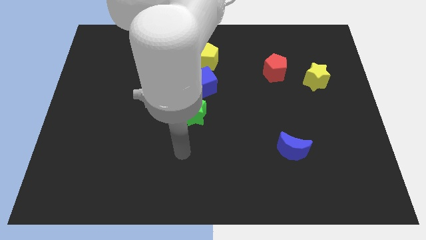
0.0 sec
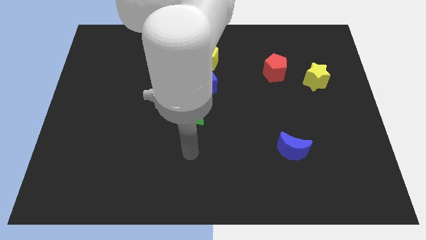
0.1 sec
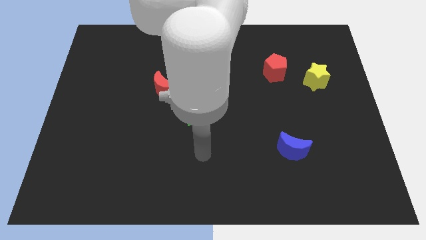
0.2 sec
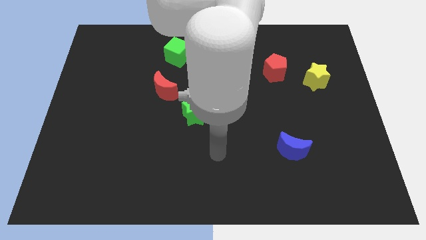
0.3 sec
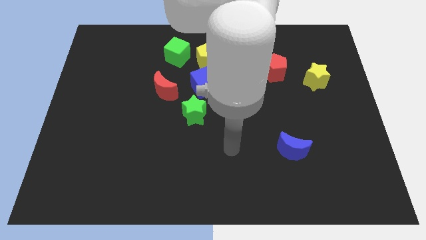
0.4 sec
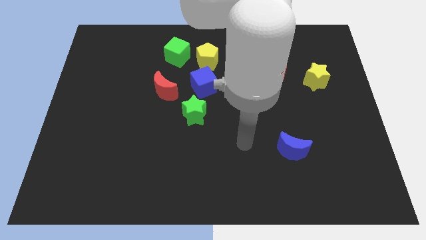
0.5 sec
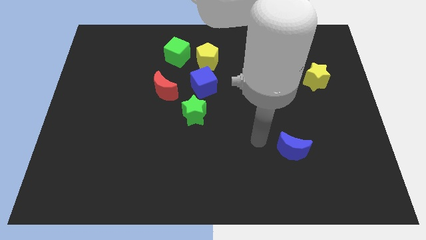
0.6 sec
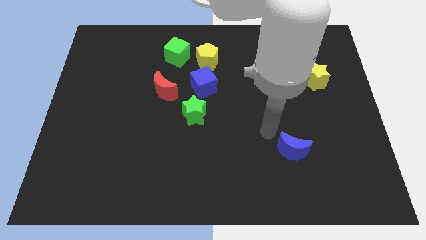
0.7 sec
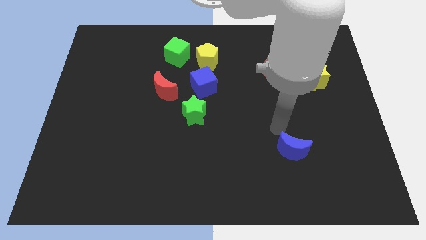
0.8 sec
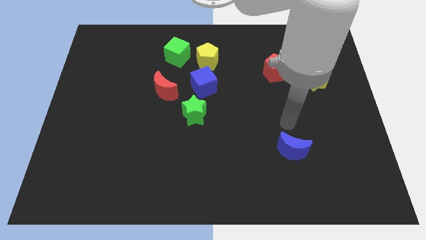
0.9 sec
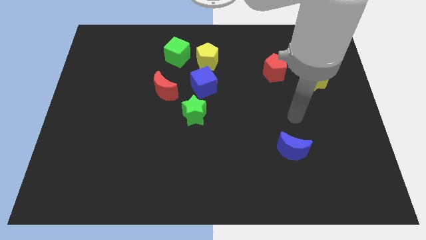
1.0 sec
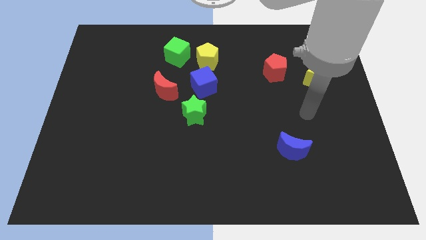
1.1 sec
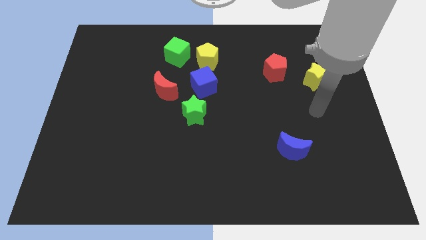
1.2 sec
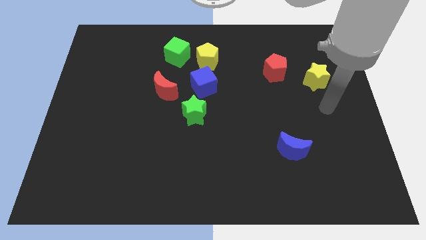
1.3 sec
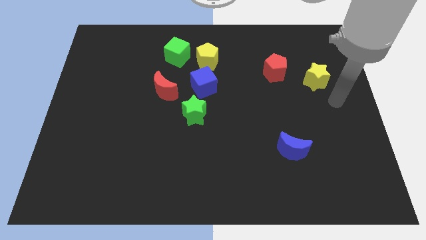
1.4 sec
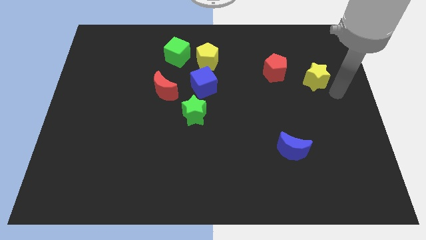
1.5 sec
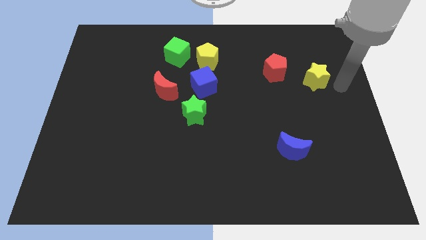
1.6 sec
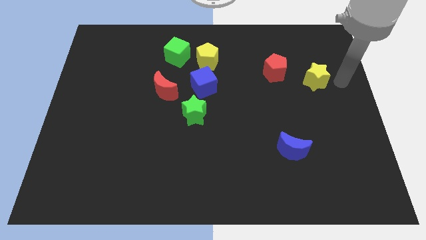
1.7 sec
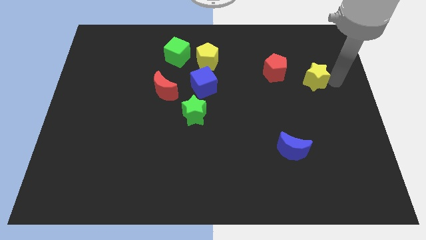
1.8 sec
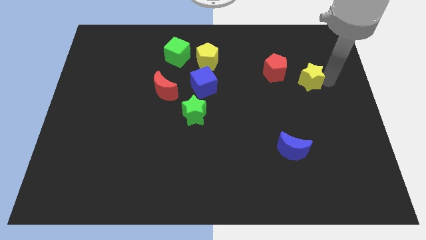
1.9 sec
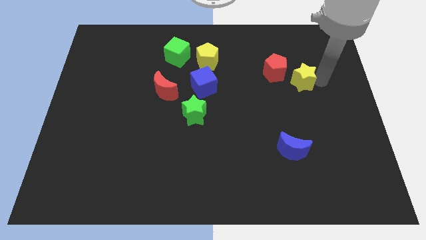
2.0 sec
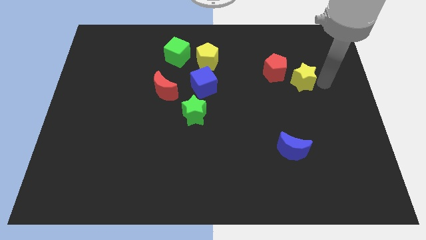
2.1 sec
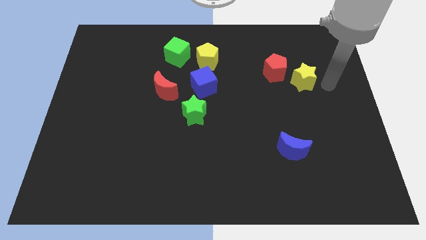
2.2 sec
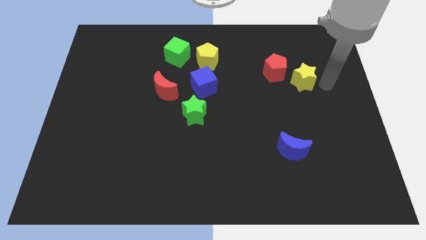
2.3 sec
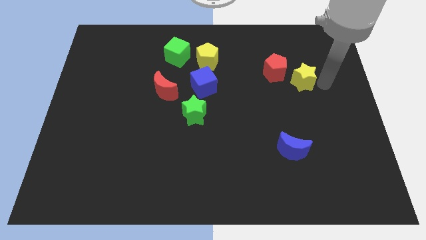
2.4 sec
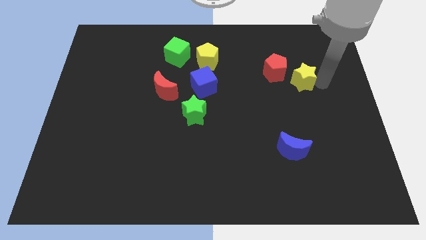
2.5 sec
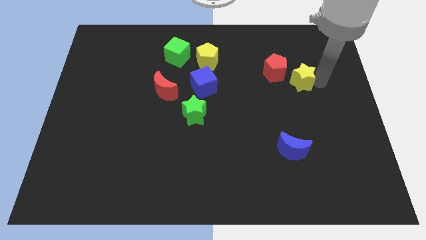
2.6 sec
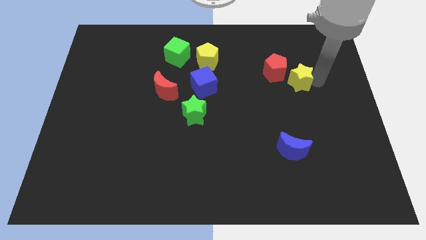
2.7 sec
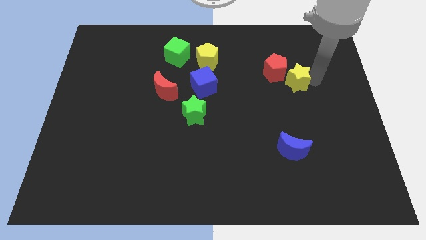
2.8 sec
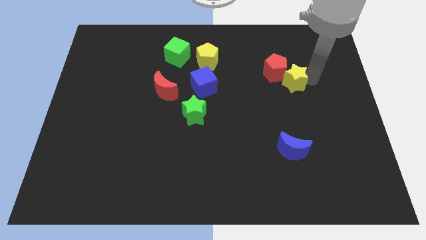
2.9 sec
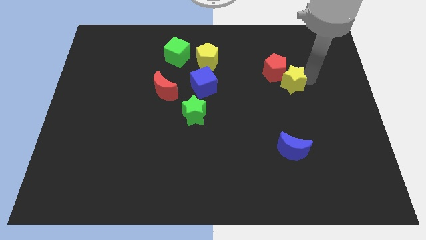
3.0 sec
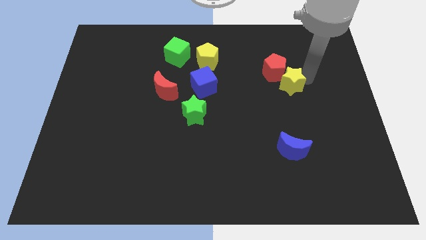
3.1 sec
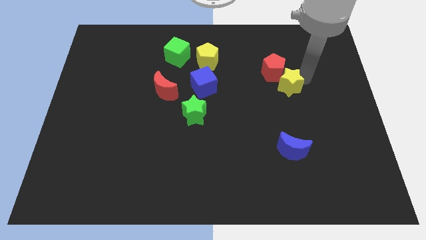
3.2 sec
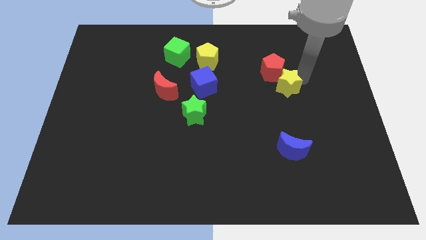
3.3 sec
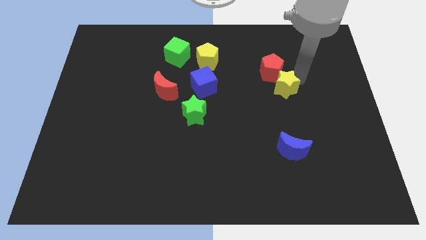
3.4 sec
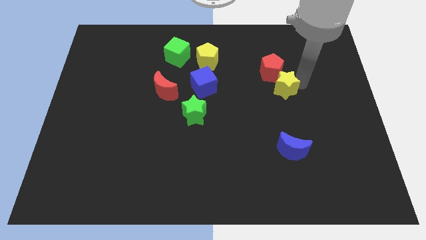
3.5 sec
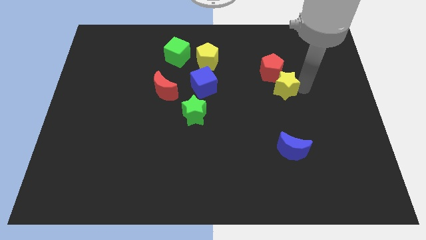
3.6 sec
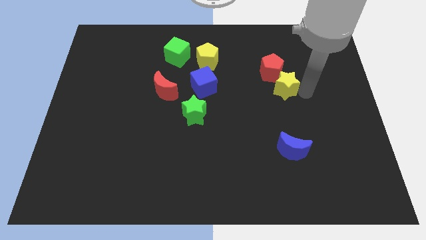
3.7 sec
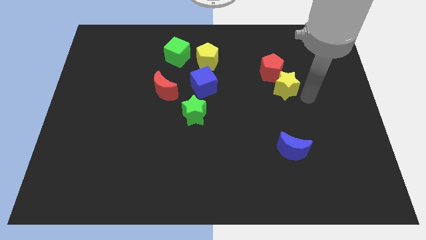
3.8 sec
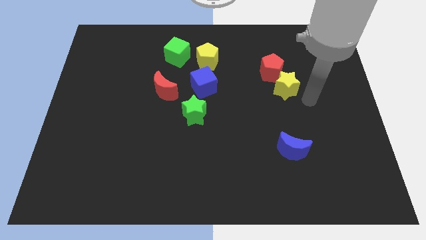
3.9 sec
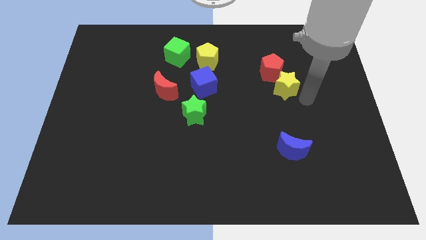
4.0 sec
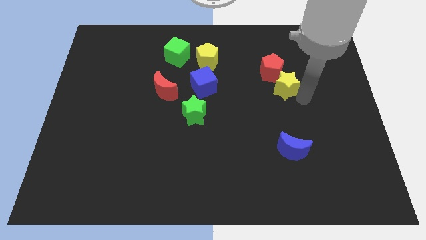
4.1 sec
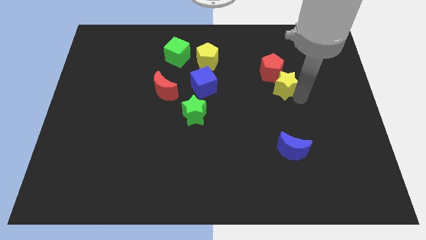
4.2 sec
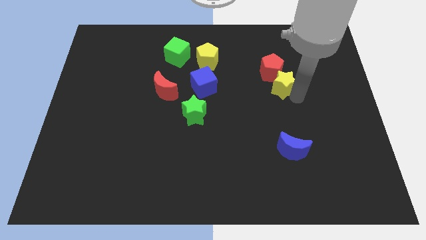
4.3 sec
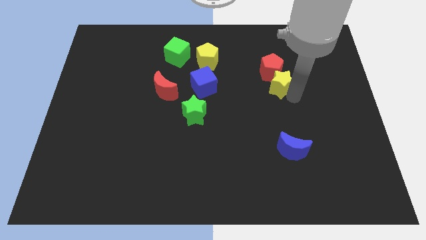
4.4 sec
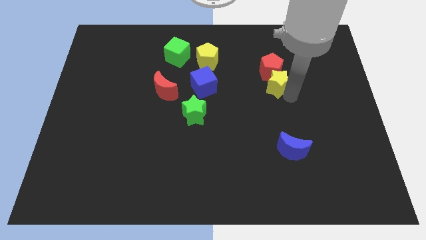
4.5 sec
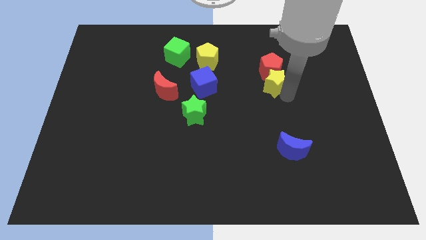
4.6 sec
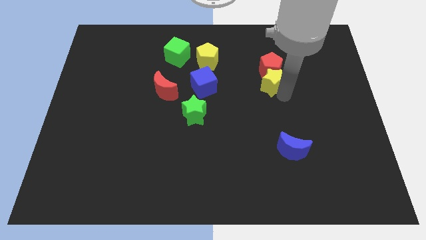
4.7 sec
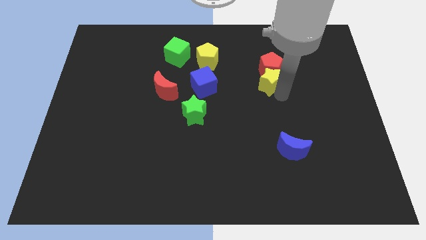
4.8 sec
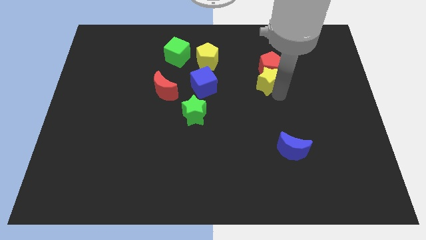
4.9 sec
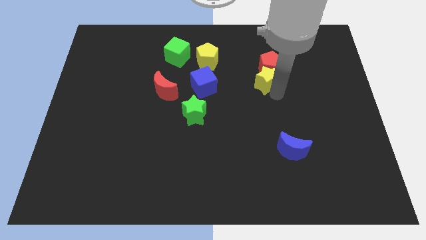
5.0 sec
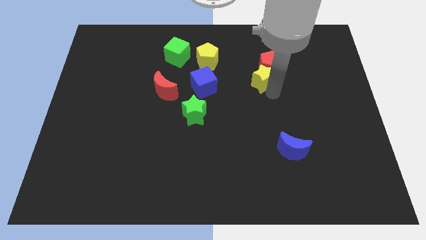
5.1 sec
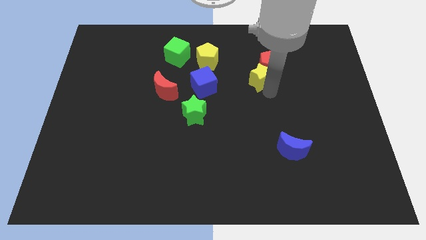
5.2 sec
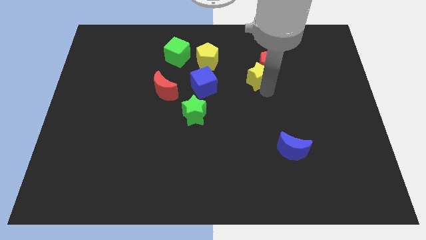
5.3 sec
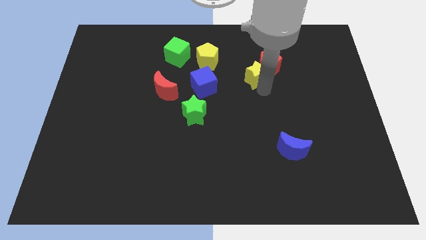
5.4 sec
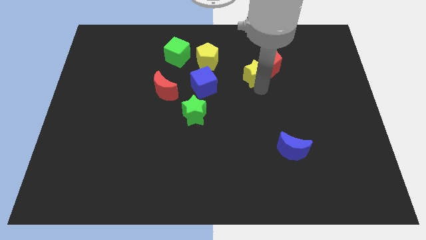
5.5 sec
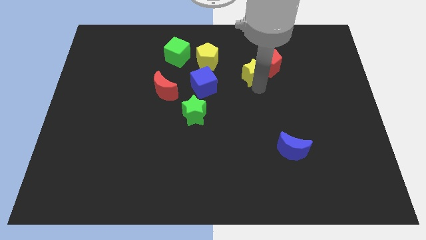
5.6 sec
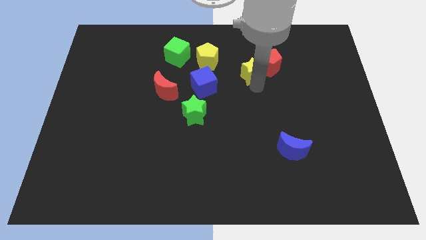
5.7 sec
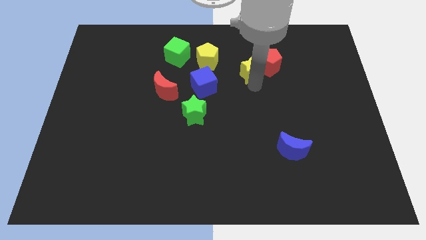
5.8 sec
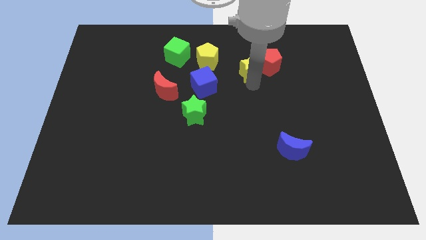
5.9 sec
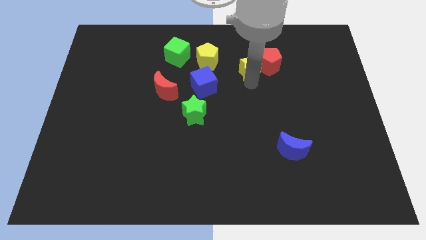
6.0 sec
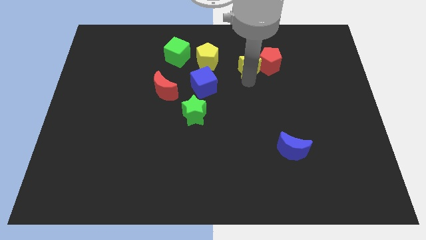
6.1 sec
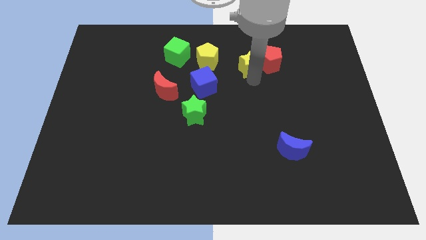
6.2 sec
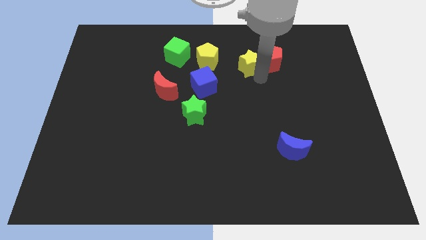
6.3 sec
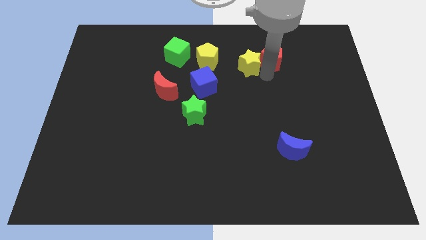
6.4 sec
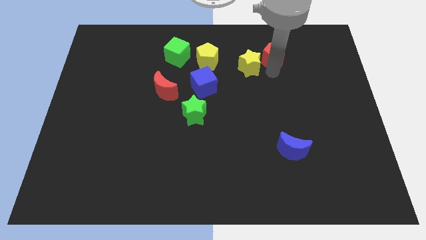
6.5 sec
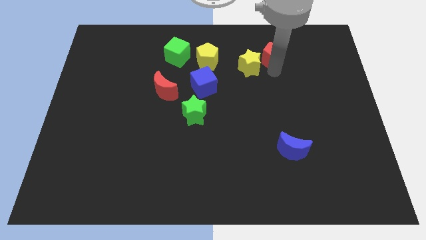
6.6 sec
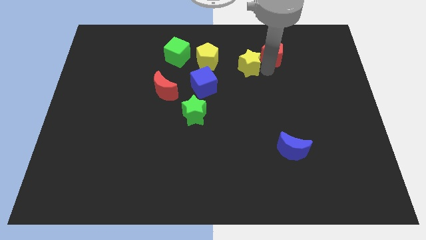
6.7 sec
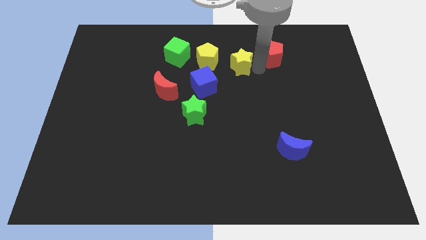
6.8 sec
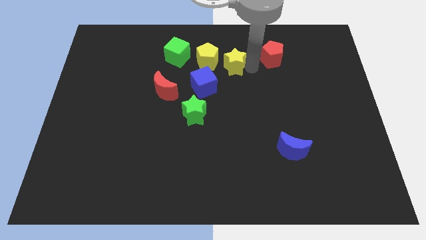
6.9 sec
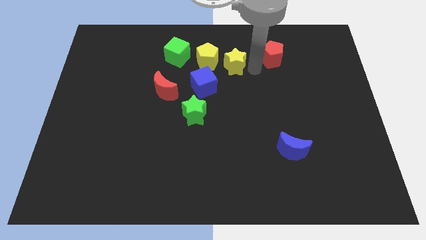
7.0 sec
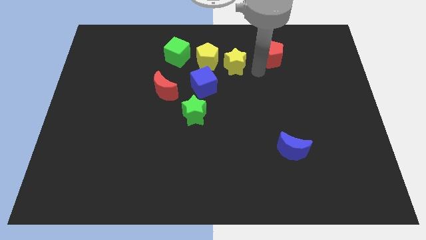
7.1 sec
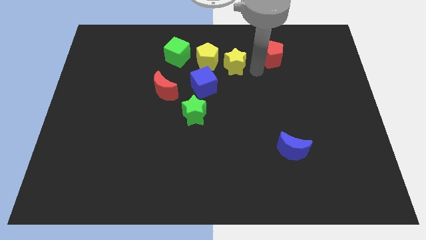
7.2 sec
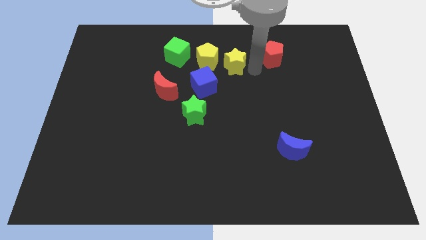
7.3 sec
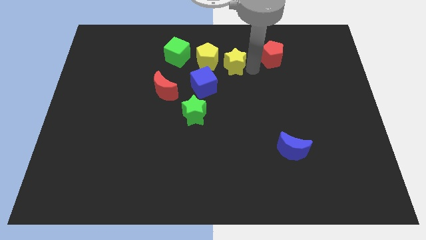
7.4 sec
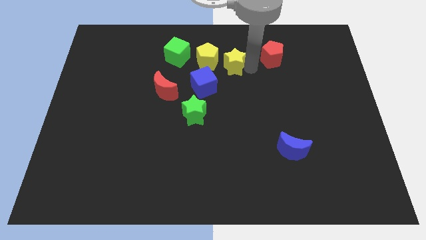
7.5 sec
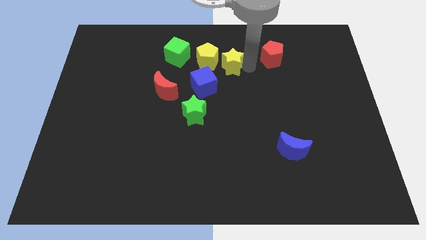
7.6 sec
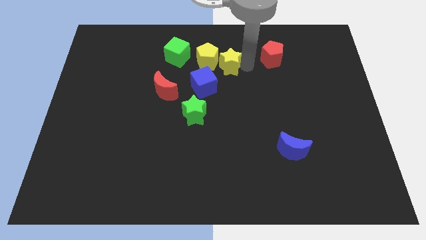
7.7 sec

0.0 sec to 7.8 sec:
put the yellow star next to the yellow pentagon
